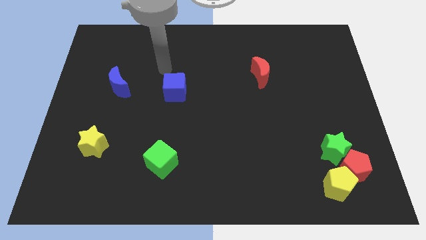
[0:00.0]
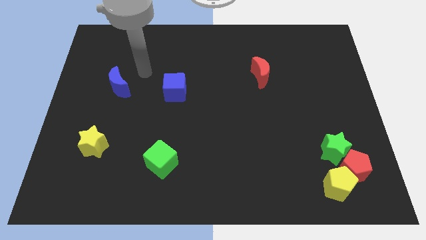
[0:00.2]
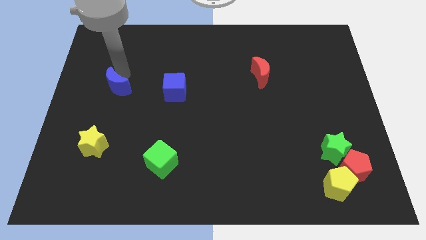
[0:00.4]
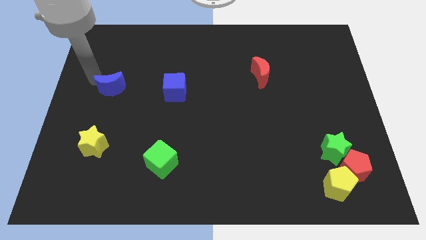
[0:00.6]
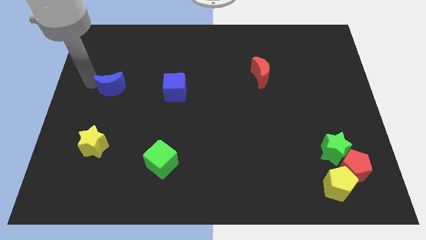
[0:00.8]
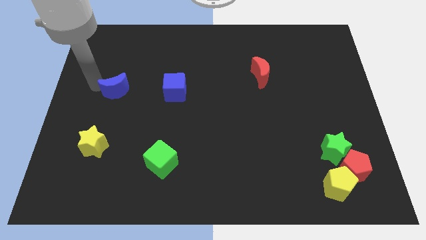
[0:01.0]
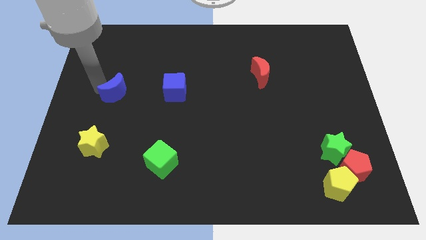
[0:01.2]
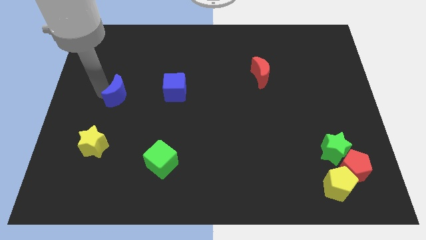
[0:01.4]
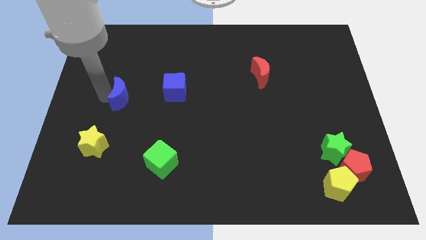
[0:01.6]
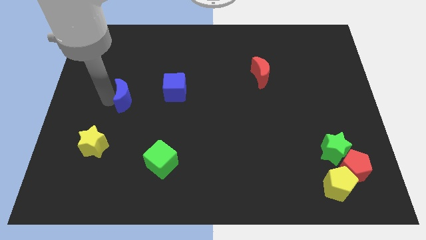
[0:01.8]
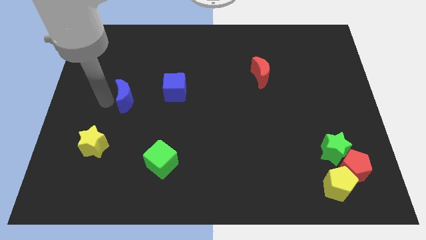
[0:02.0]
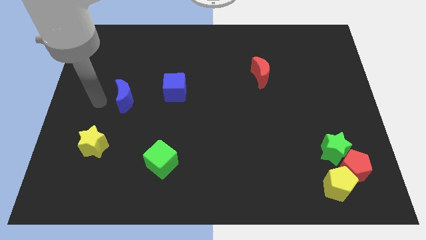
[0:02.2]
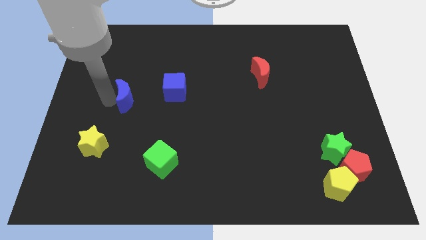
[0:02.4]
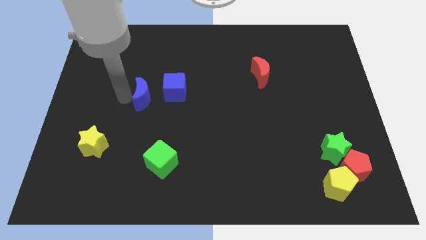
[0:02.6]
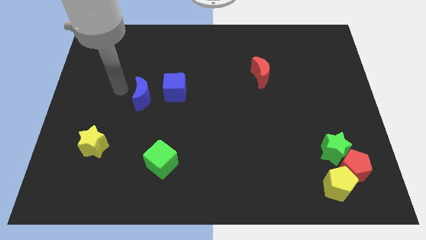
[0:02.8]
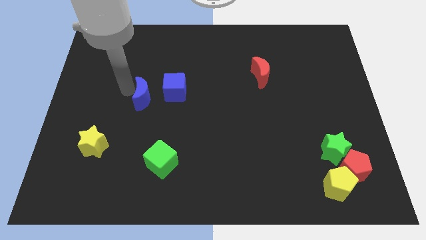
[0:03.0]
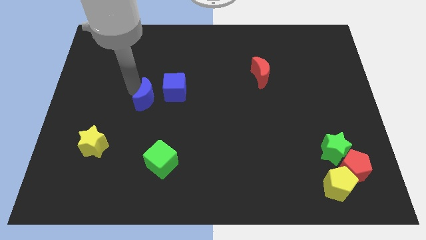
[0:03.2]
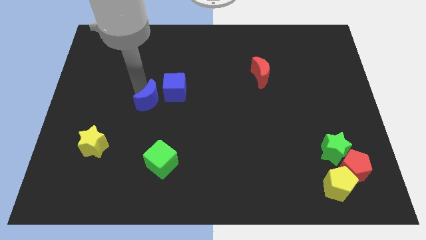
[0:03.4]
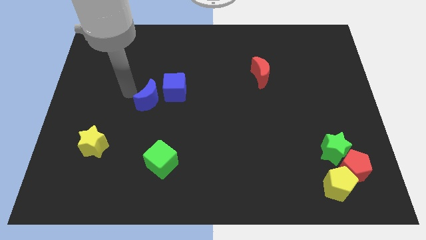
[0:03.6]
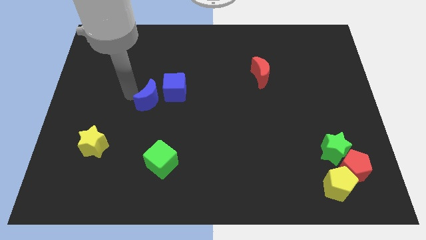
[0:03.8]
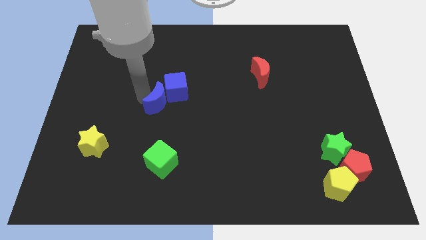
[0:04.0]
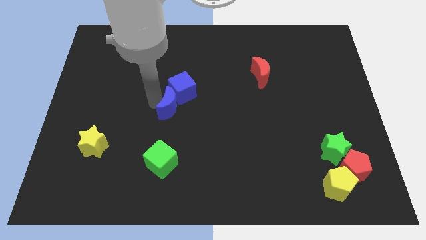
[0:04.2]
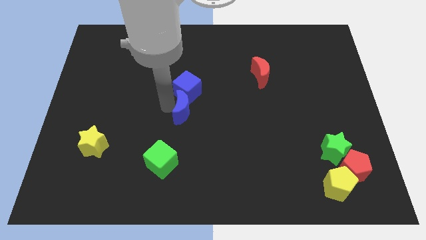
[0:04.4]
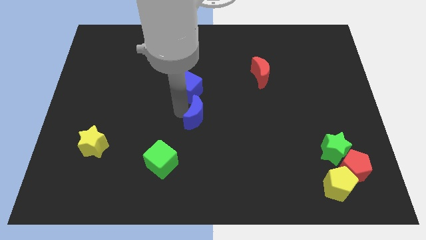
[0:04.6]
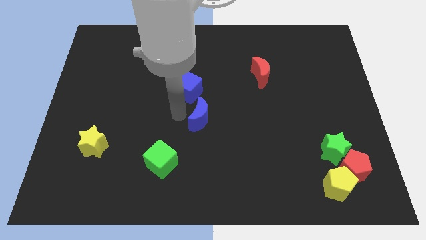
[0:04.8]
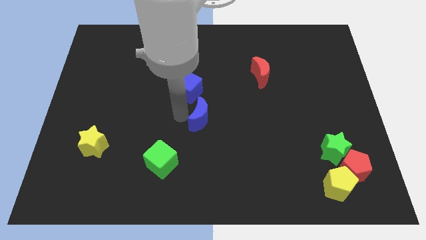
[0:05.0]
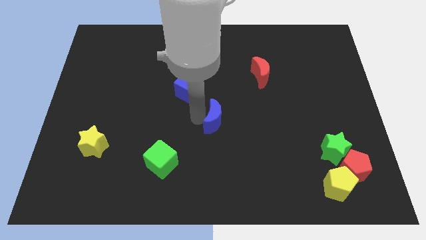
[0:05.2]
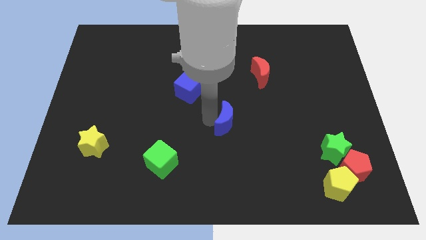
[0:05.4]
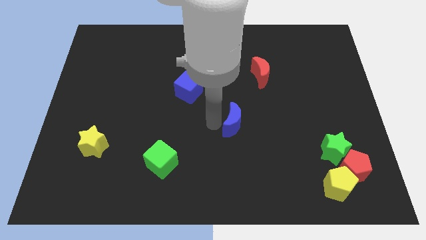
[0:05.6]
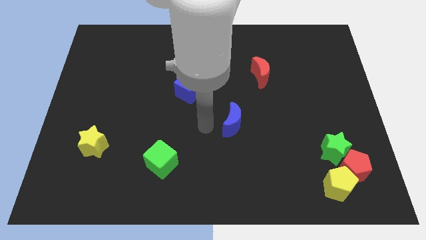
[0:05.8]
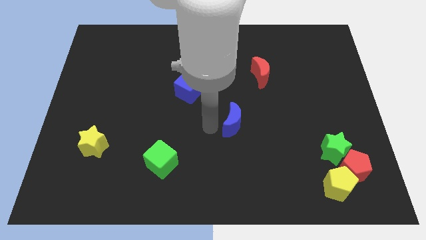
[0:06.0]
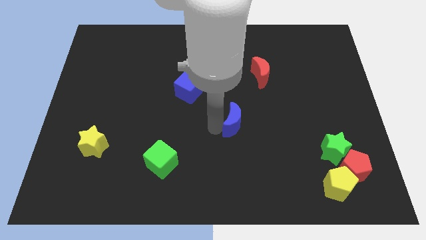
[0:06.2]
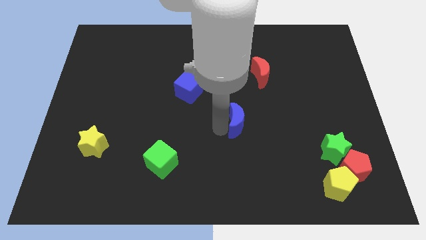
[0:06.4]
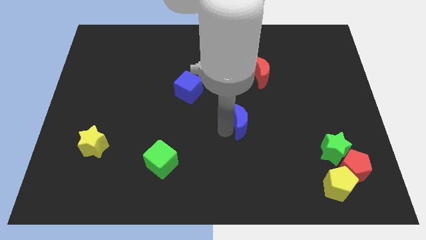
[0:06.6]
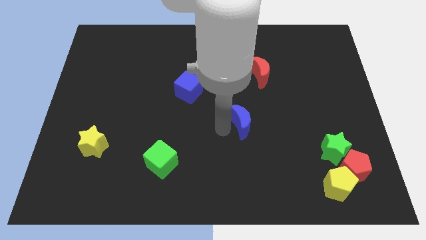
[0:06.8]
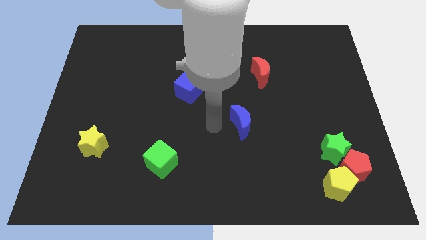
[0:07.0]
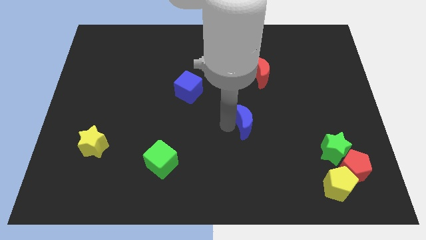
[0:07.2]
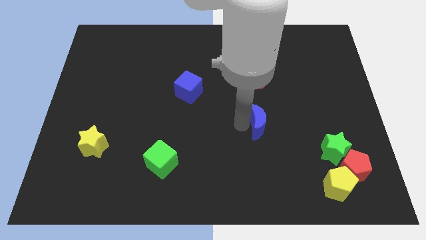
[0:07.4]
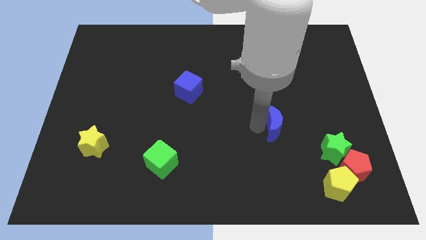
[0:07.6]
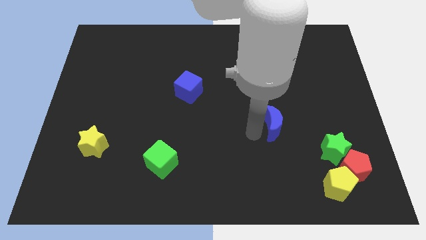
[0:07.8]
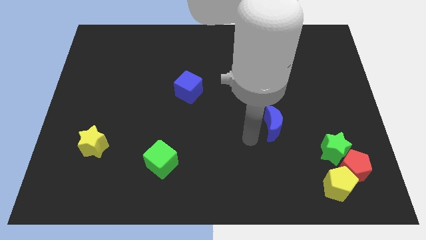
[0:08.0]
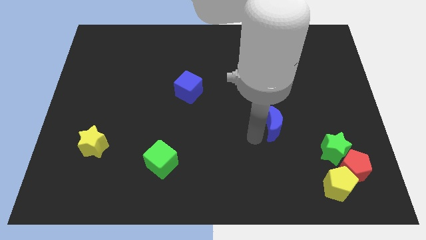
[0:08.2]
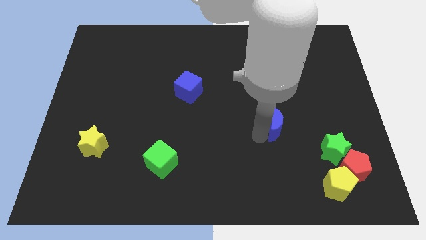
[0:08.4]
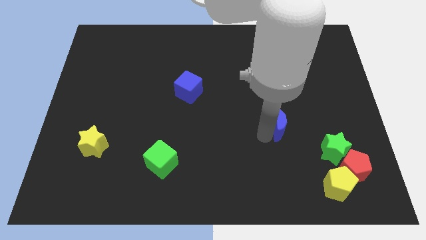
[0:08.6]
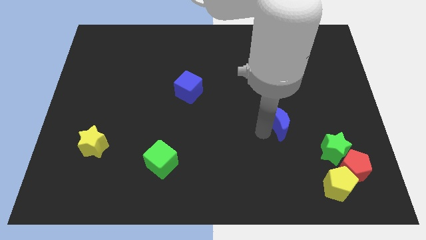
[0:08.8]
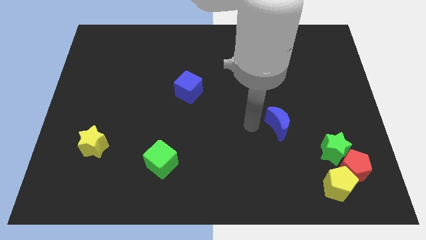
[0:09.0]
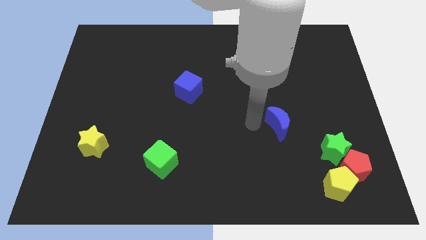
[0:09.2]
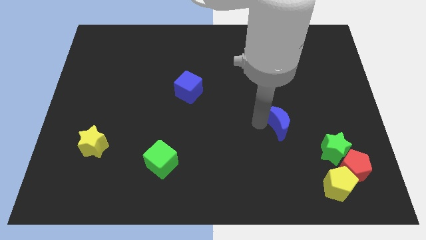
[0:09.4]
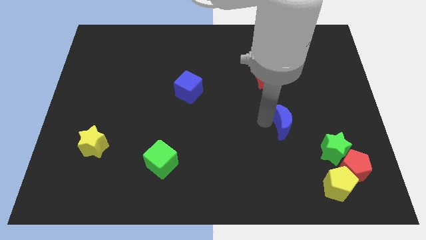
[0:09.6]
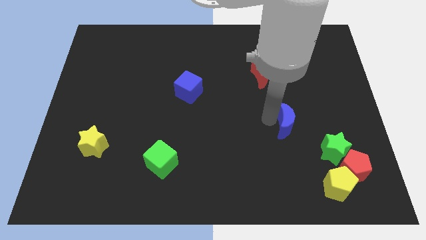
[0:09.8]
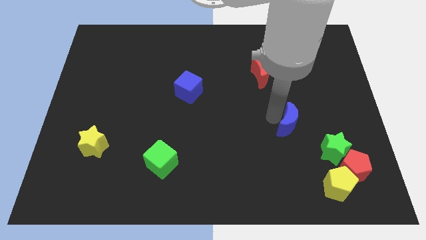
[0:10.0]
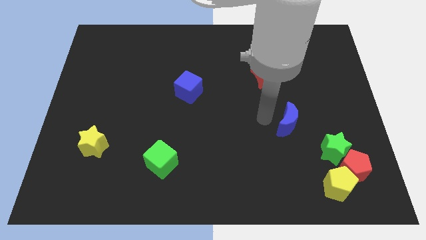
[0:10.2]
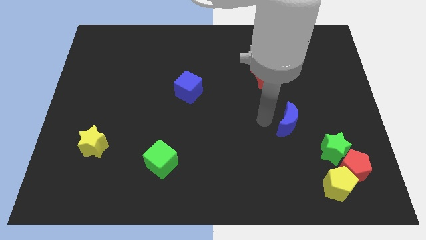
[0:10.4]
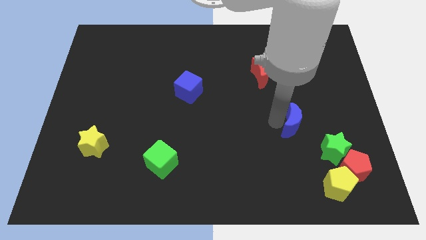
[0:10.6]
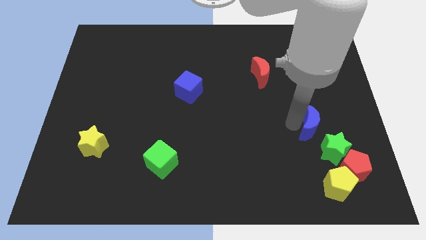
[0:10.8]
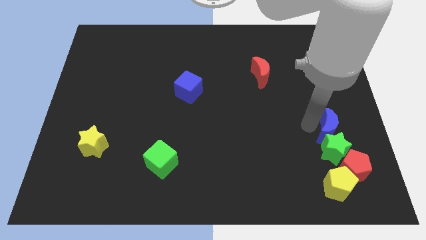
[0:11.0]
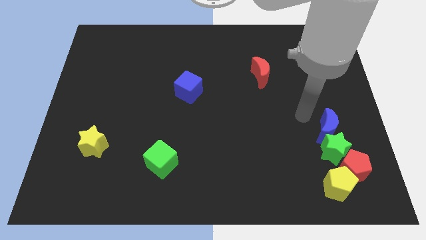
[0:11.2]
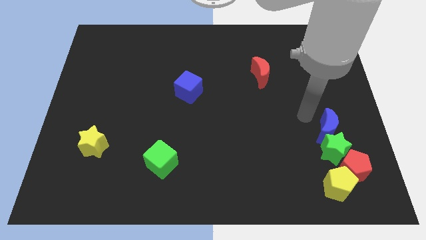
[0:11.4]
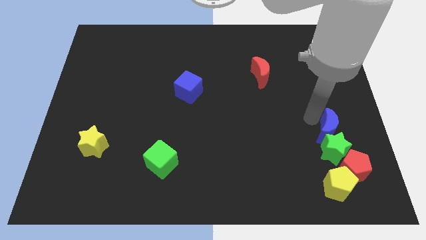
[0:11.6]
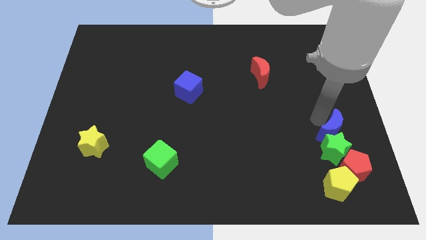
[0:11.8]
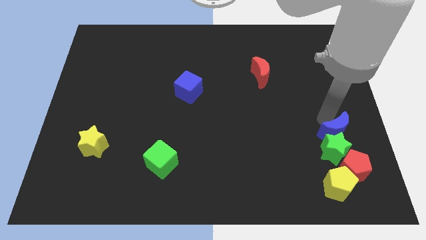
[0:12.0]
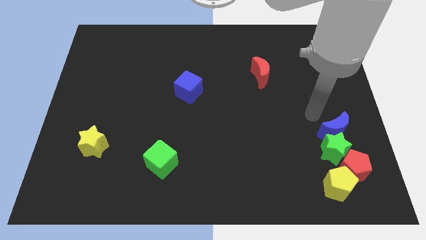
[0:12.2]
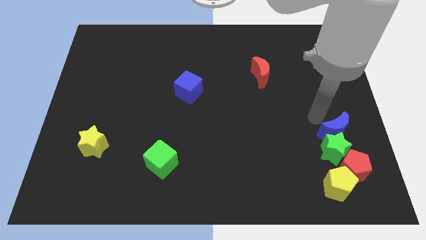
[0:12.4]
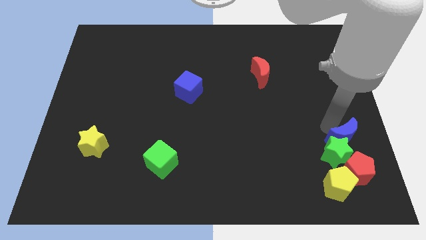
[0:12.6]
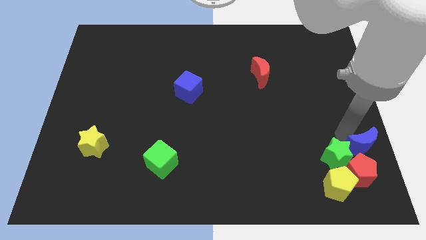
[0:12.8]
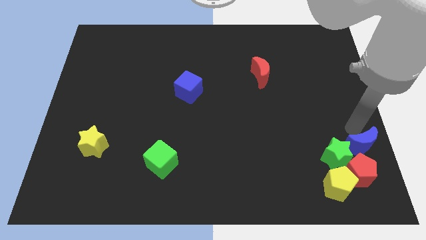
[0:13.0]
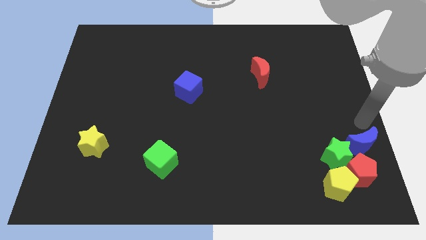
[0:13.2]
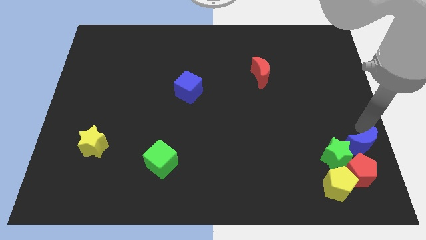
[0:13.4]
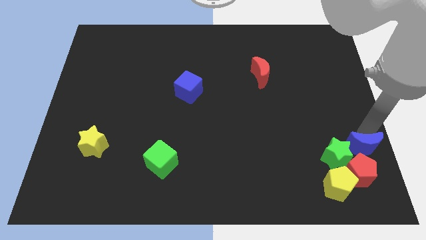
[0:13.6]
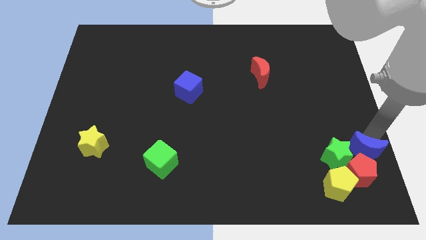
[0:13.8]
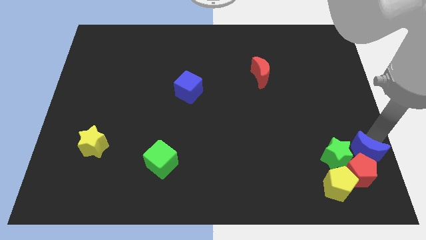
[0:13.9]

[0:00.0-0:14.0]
slide the blue moon towards the red pentagon

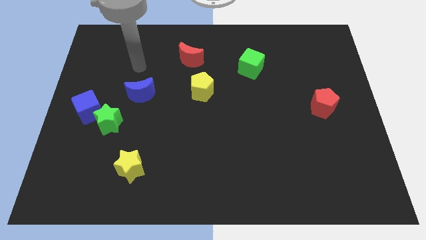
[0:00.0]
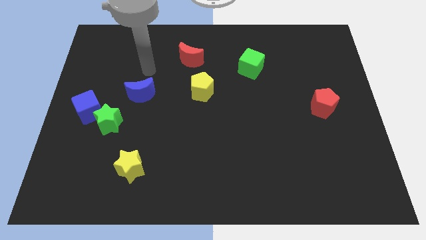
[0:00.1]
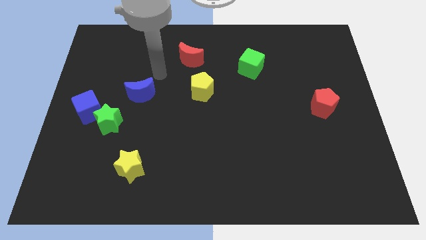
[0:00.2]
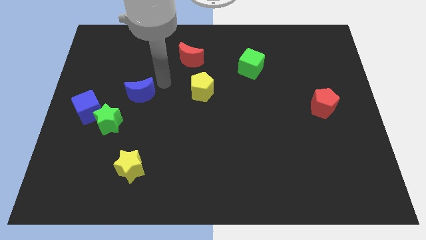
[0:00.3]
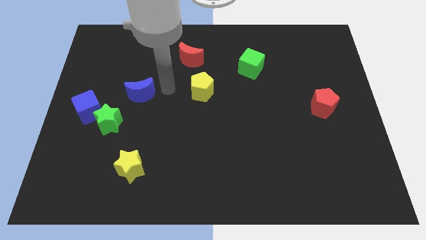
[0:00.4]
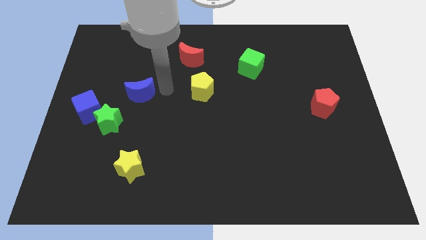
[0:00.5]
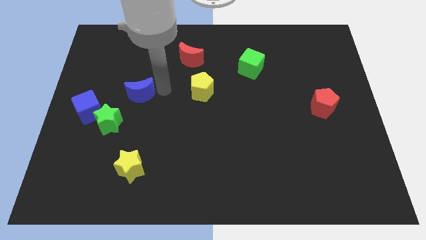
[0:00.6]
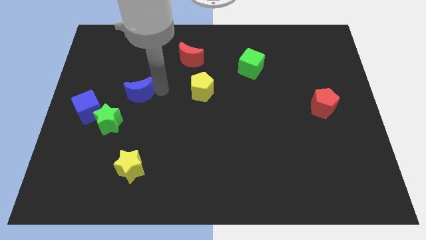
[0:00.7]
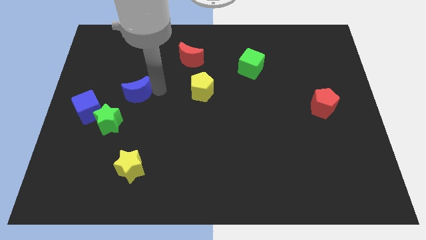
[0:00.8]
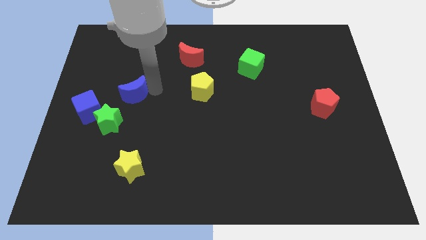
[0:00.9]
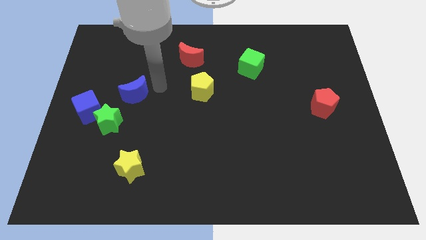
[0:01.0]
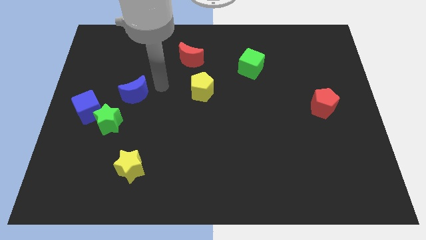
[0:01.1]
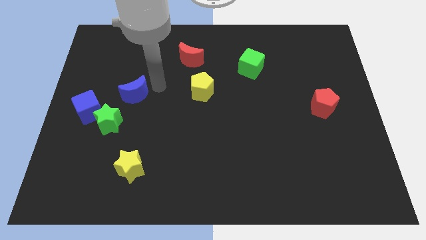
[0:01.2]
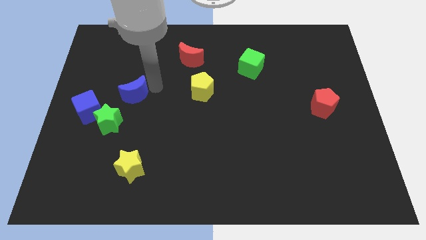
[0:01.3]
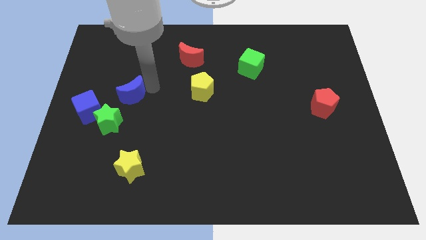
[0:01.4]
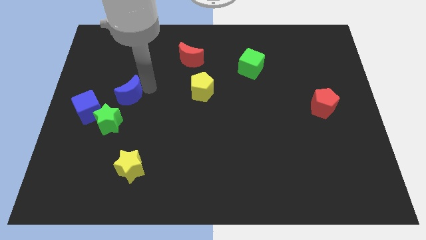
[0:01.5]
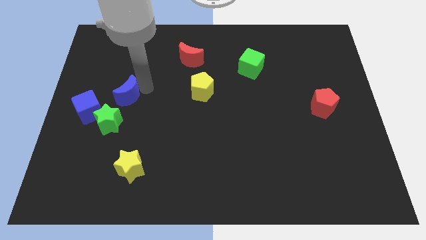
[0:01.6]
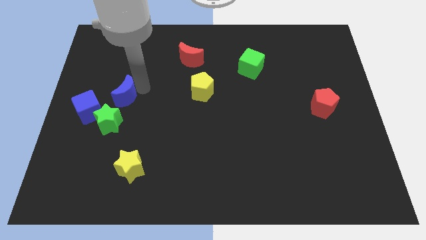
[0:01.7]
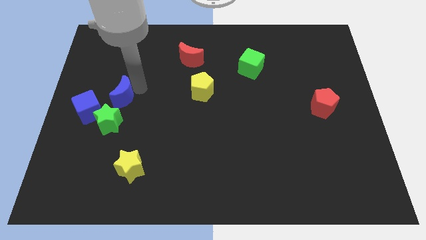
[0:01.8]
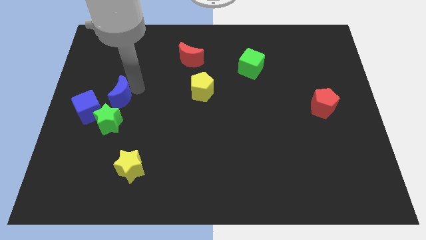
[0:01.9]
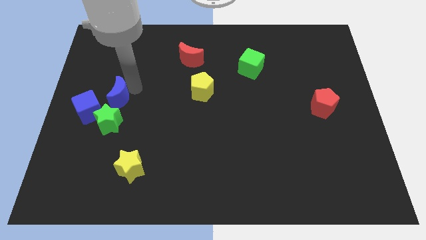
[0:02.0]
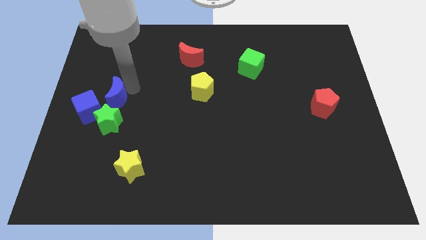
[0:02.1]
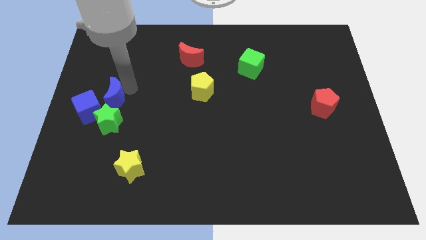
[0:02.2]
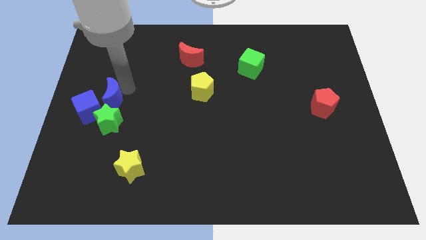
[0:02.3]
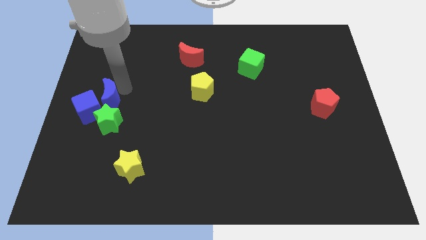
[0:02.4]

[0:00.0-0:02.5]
put the blue moon to the blue cube
